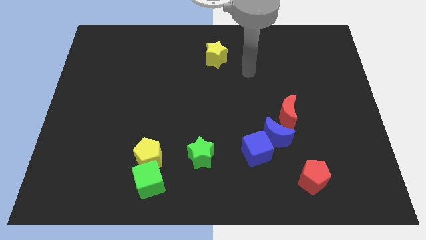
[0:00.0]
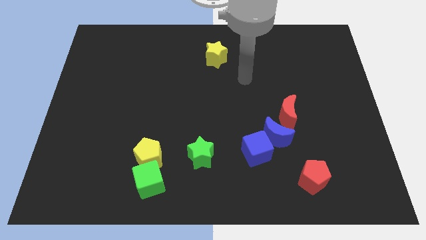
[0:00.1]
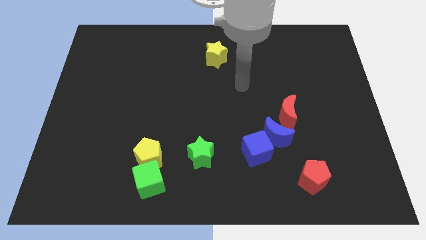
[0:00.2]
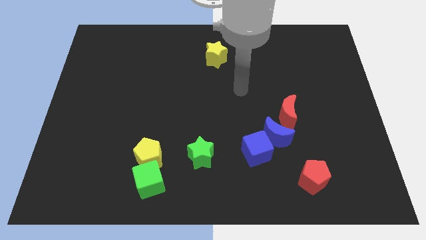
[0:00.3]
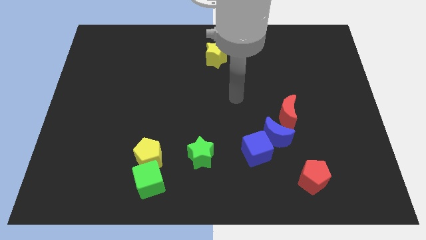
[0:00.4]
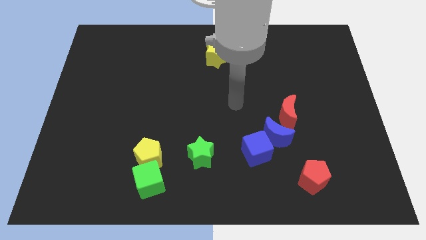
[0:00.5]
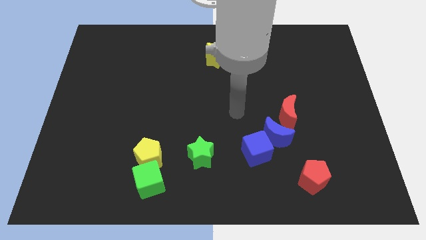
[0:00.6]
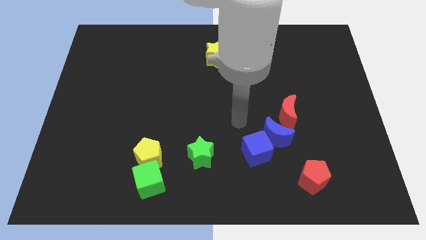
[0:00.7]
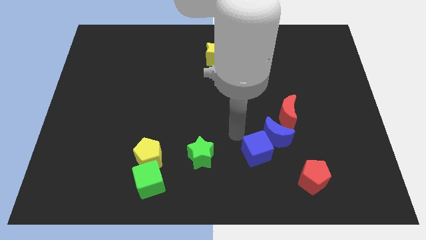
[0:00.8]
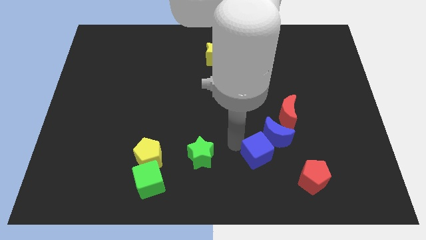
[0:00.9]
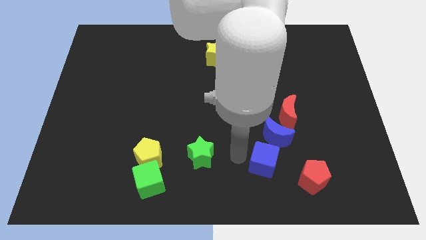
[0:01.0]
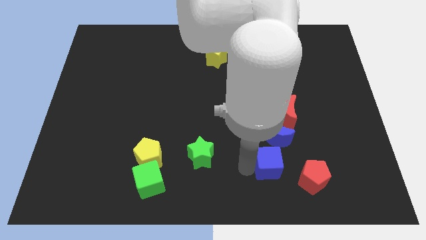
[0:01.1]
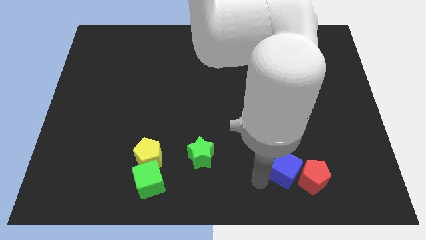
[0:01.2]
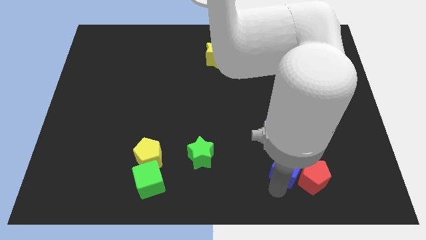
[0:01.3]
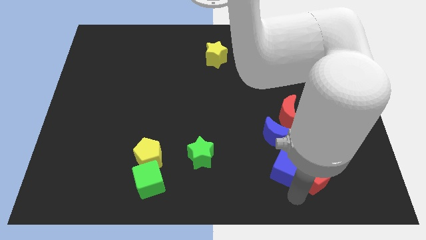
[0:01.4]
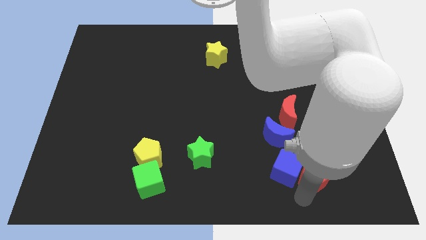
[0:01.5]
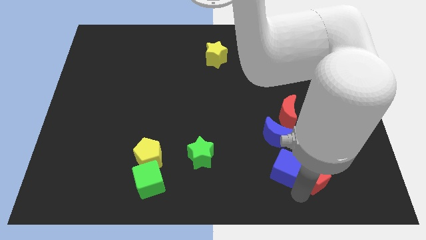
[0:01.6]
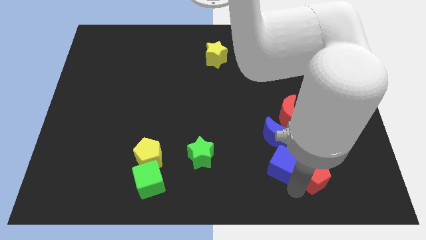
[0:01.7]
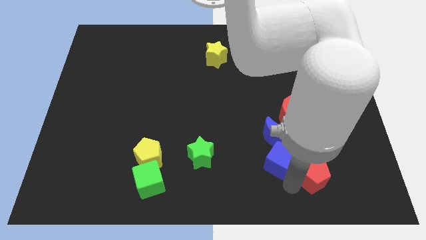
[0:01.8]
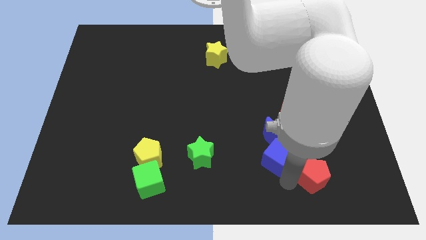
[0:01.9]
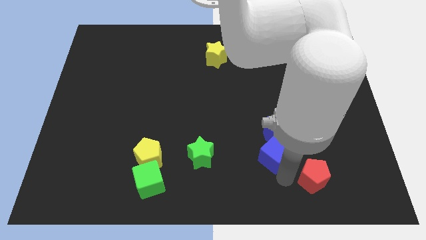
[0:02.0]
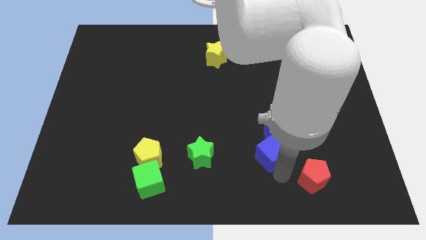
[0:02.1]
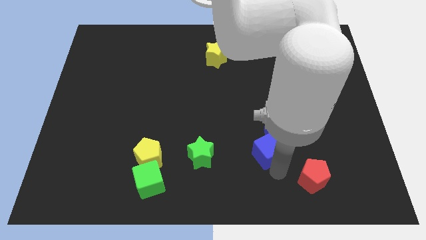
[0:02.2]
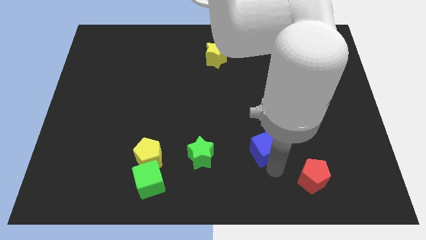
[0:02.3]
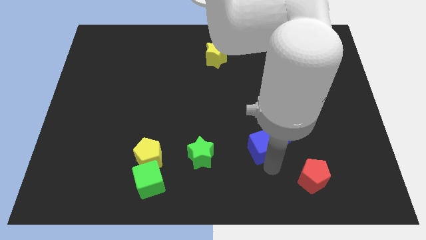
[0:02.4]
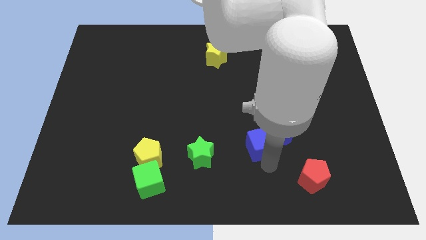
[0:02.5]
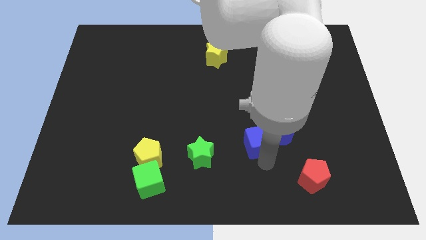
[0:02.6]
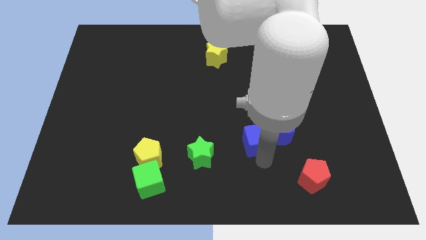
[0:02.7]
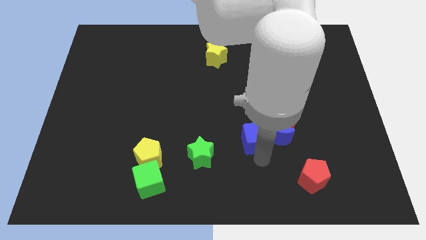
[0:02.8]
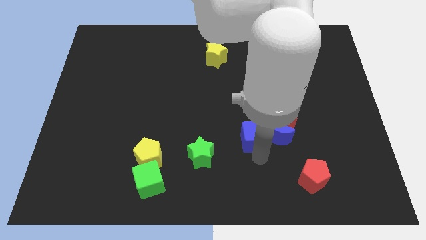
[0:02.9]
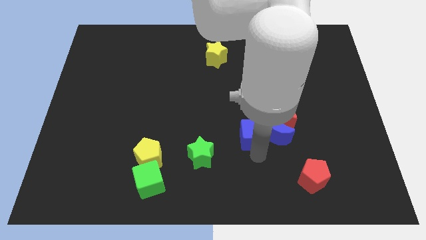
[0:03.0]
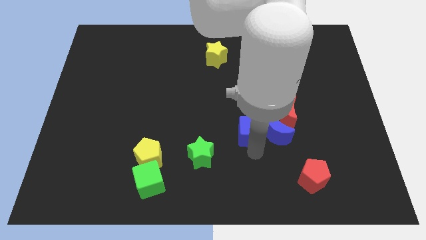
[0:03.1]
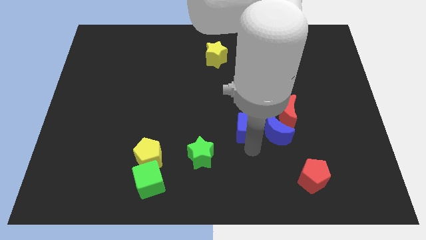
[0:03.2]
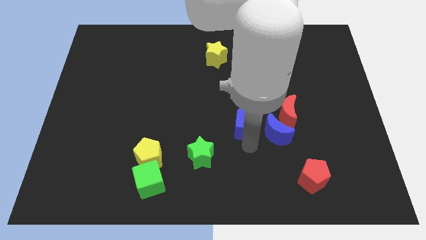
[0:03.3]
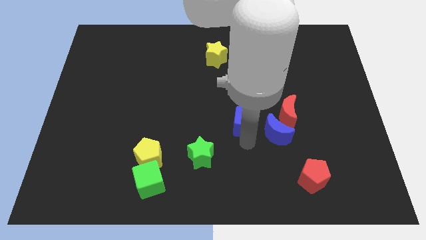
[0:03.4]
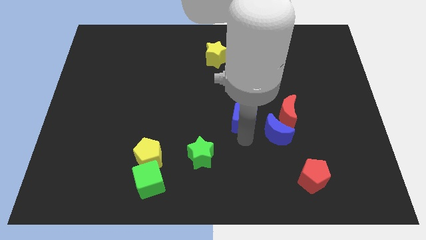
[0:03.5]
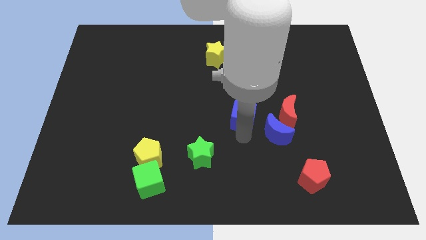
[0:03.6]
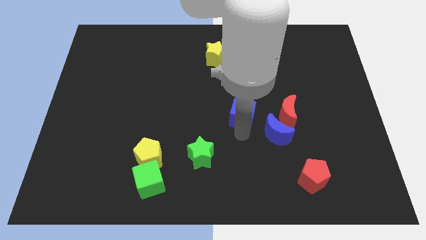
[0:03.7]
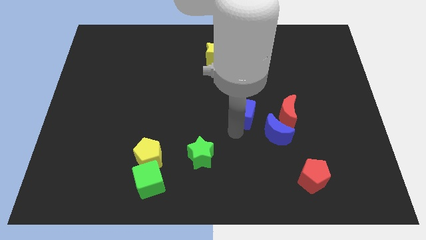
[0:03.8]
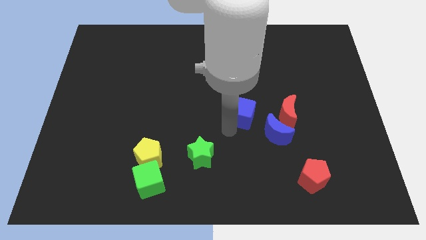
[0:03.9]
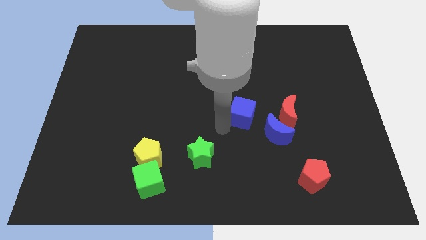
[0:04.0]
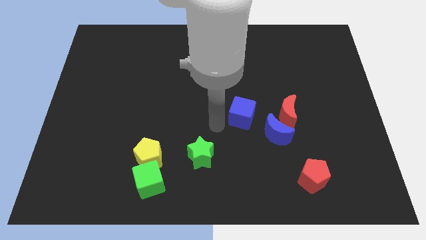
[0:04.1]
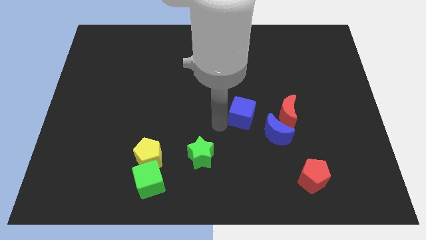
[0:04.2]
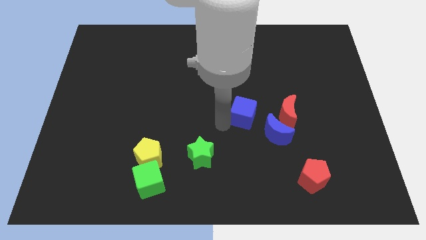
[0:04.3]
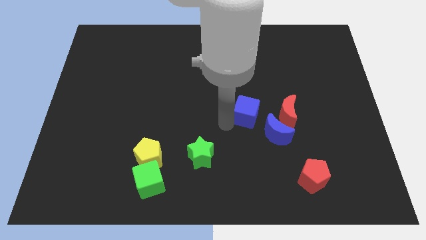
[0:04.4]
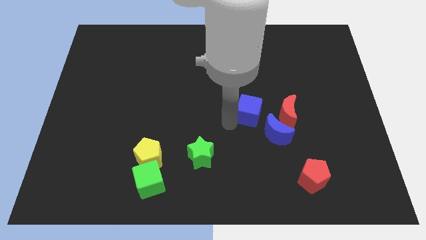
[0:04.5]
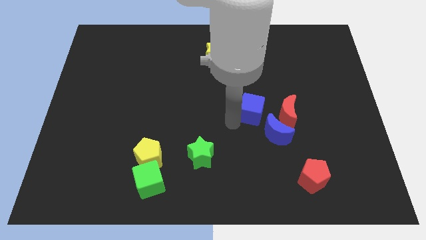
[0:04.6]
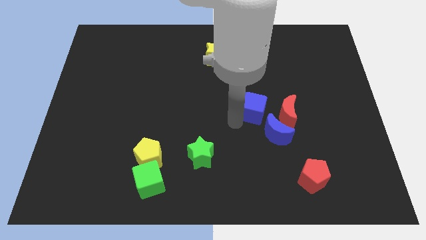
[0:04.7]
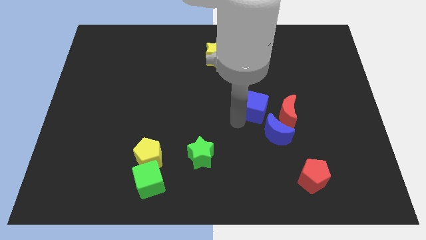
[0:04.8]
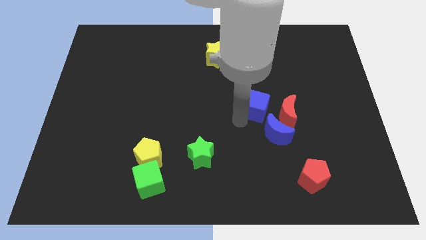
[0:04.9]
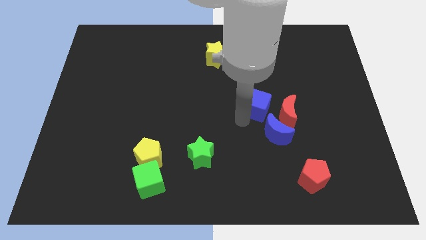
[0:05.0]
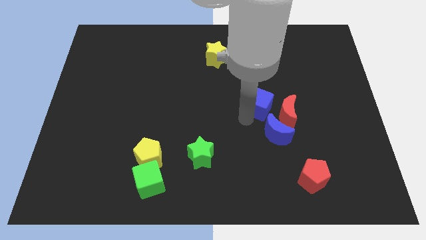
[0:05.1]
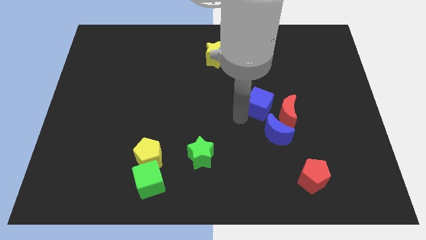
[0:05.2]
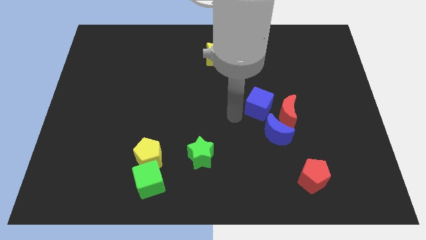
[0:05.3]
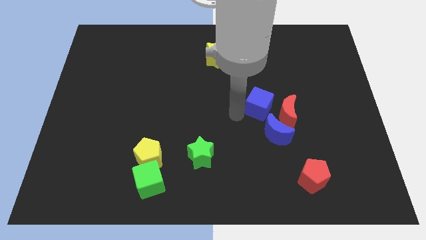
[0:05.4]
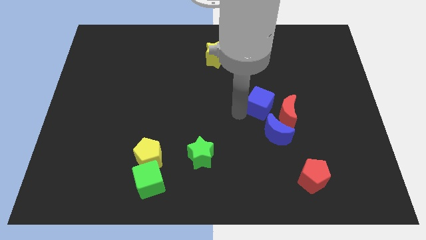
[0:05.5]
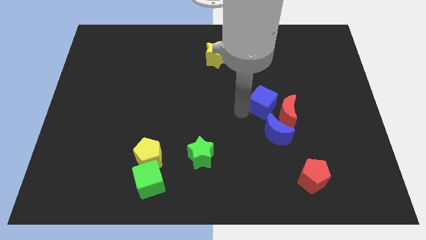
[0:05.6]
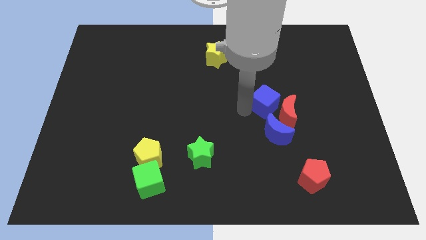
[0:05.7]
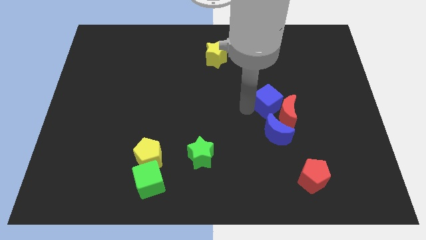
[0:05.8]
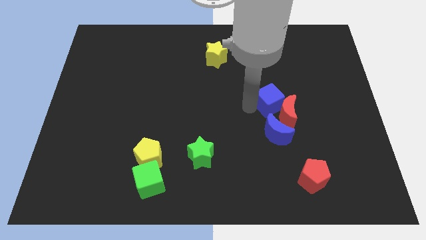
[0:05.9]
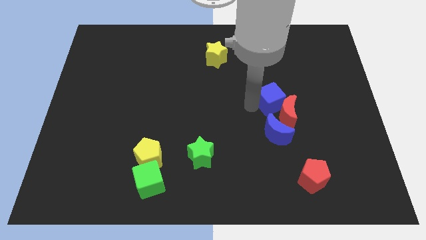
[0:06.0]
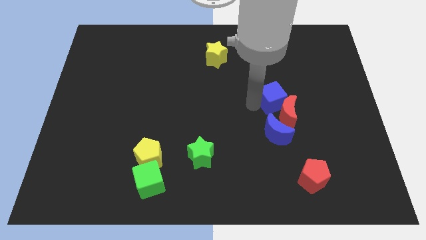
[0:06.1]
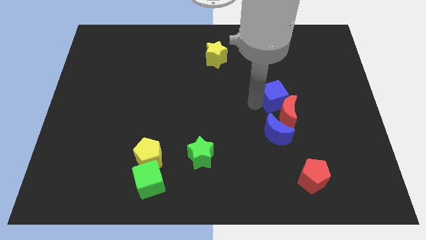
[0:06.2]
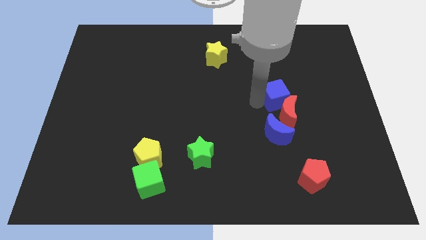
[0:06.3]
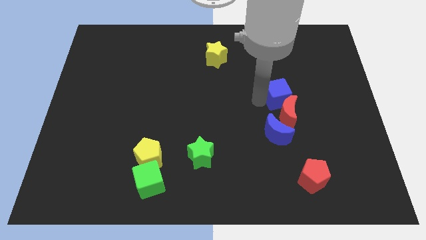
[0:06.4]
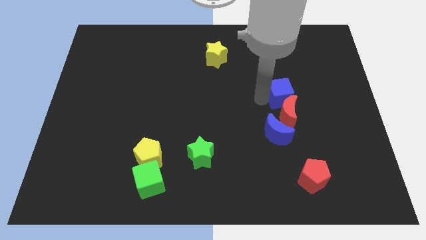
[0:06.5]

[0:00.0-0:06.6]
move the blue cube diagonally up and to the right of the red moon

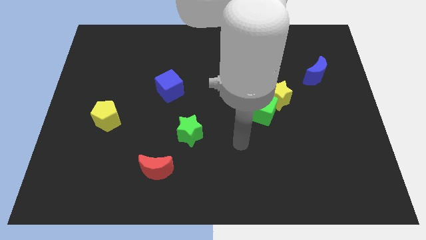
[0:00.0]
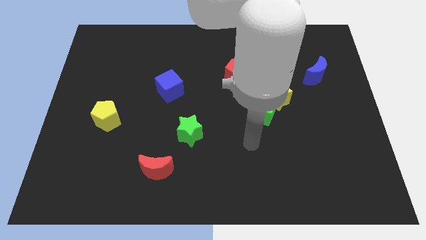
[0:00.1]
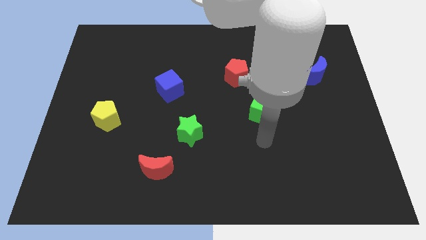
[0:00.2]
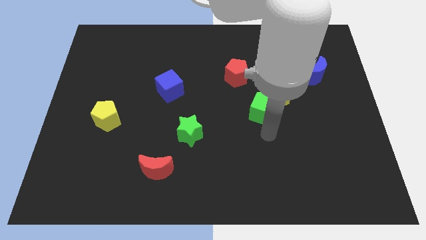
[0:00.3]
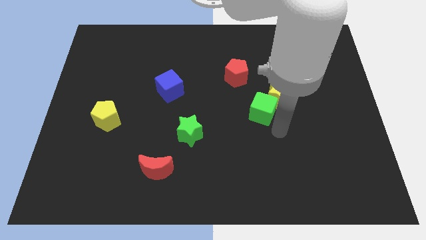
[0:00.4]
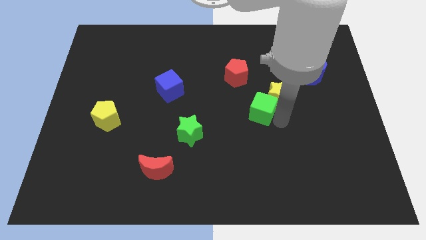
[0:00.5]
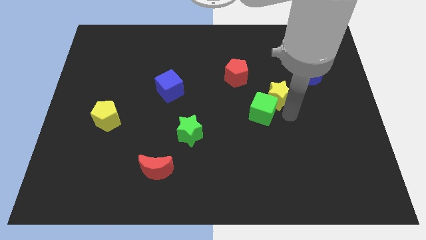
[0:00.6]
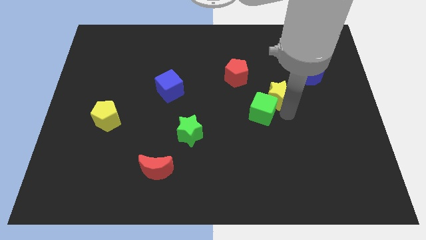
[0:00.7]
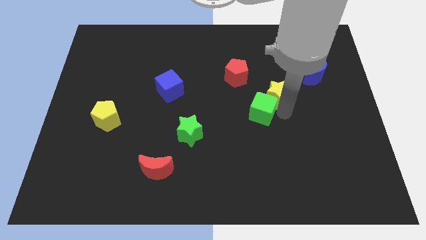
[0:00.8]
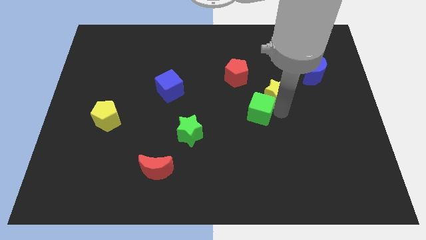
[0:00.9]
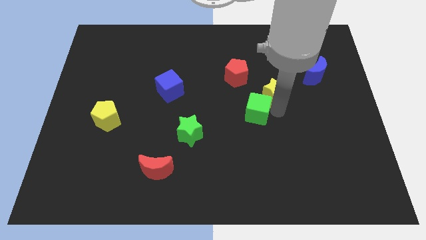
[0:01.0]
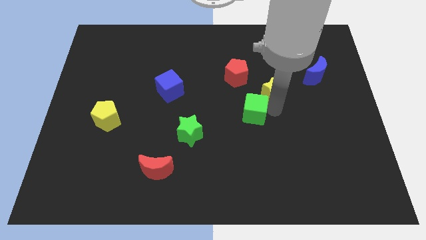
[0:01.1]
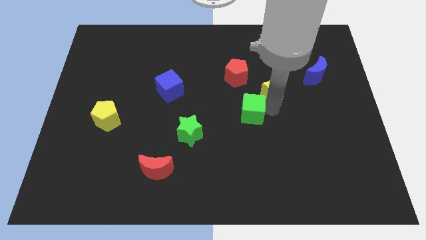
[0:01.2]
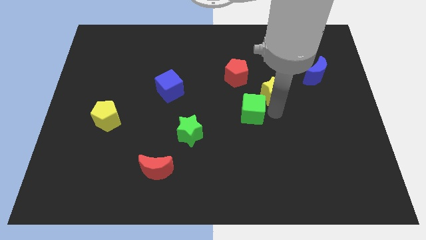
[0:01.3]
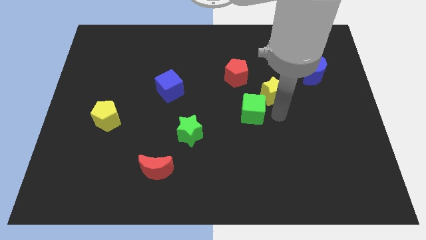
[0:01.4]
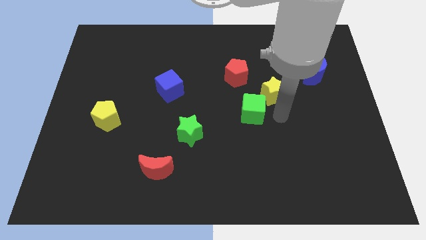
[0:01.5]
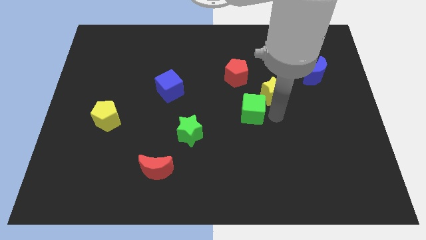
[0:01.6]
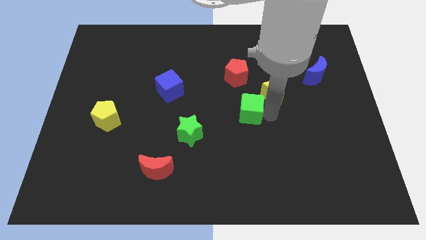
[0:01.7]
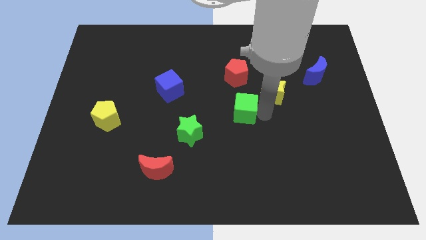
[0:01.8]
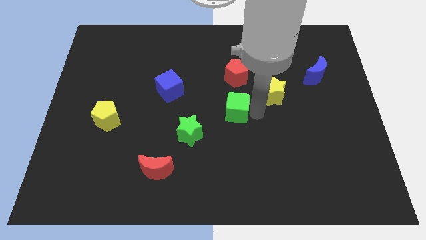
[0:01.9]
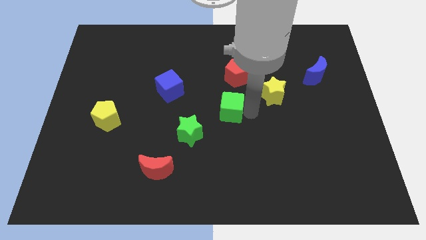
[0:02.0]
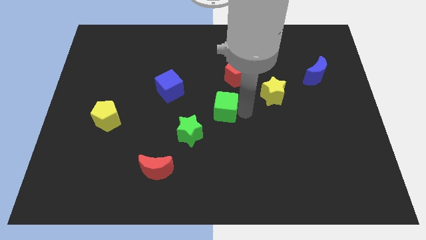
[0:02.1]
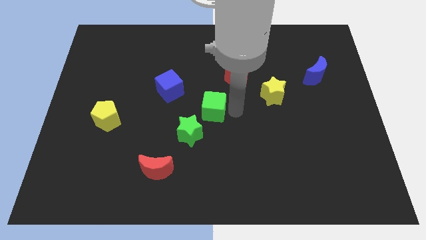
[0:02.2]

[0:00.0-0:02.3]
move the green cube to the bottom right of the blue cube
